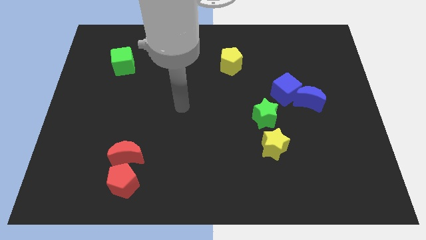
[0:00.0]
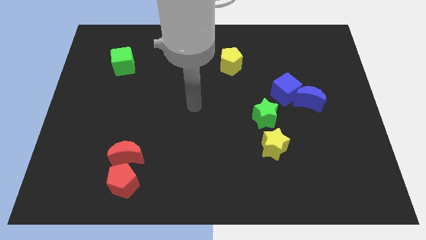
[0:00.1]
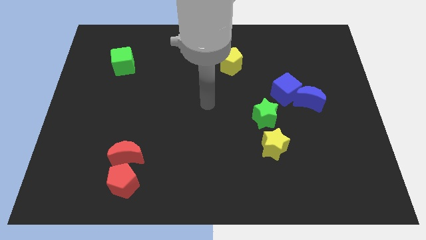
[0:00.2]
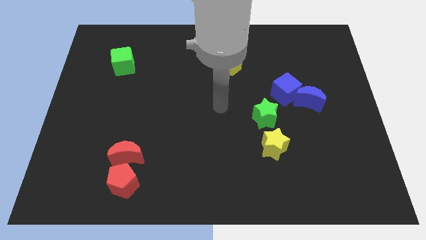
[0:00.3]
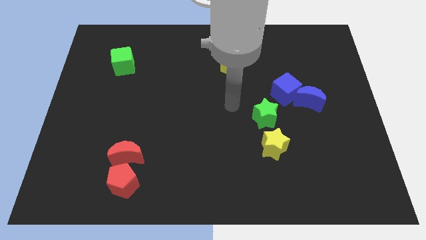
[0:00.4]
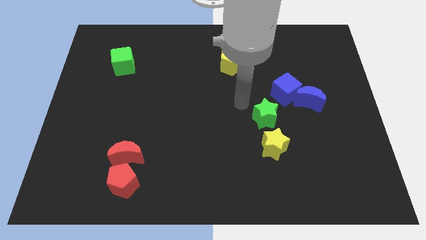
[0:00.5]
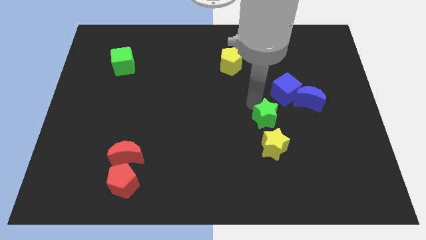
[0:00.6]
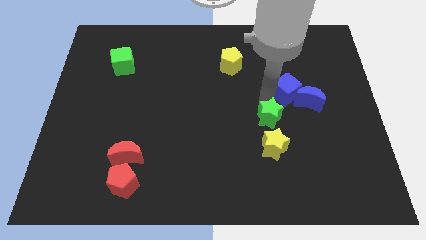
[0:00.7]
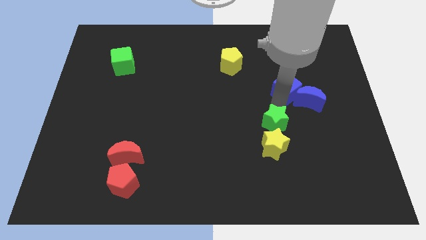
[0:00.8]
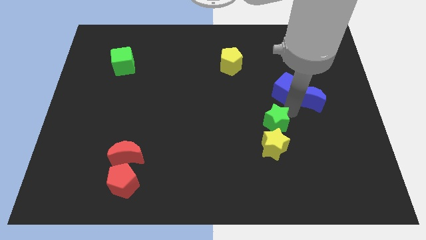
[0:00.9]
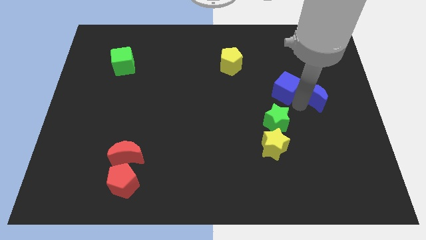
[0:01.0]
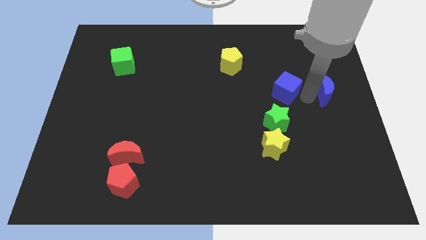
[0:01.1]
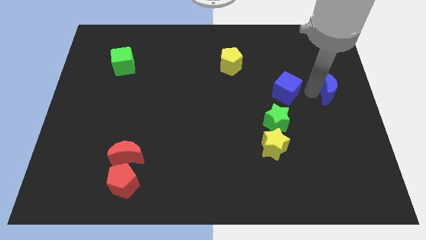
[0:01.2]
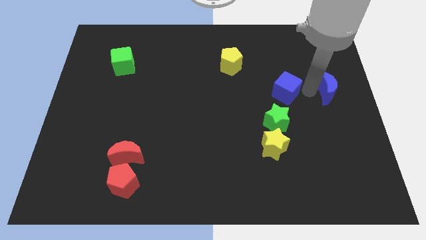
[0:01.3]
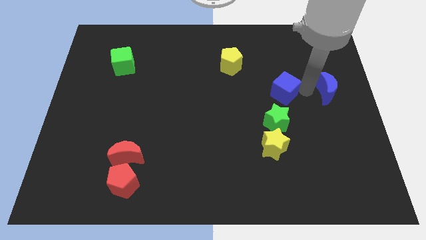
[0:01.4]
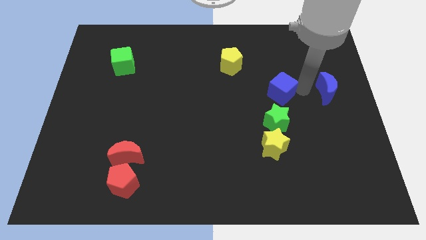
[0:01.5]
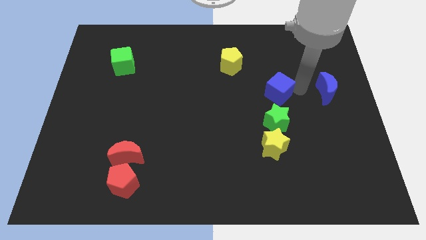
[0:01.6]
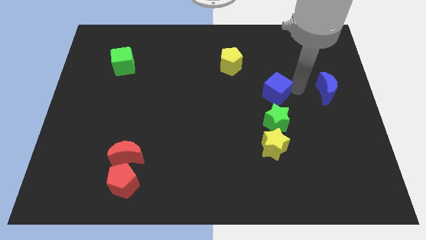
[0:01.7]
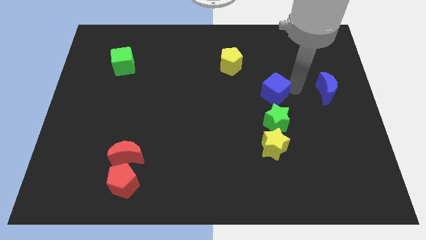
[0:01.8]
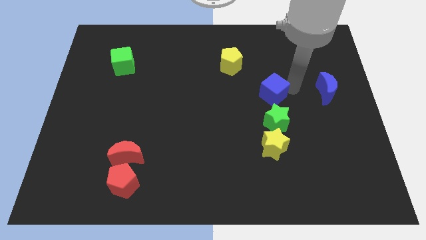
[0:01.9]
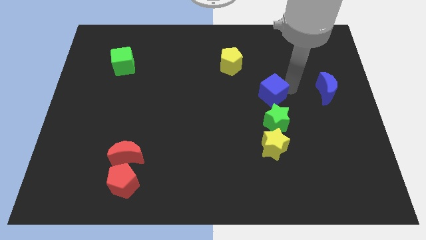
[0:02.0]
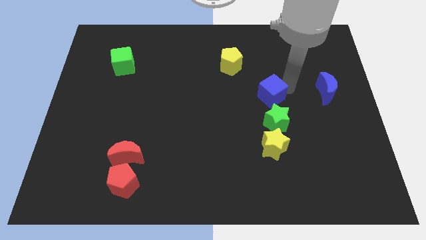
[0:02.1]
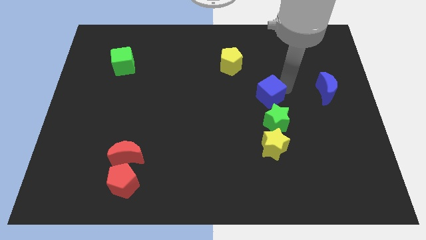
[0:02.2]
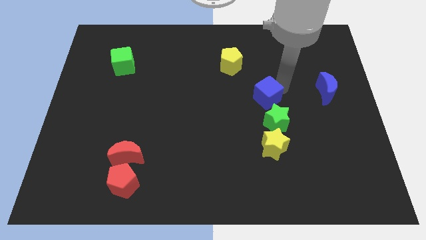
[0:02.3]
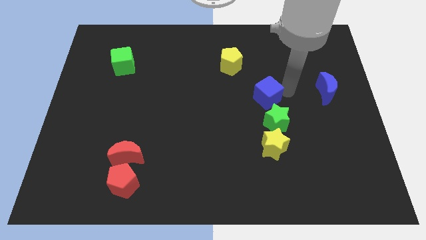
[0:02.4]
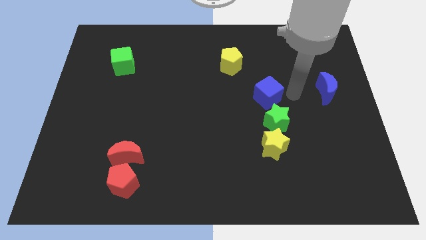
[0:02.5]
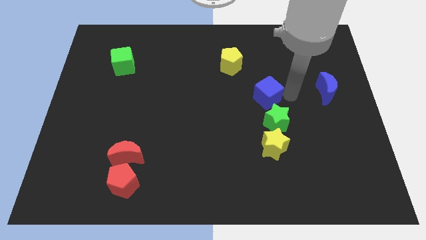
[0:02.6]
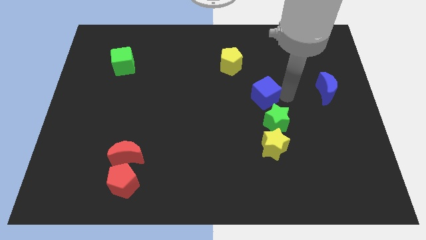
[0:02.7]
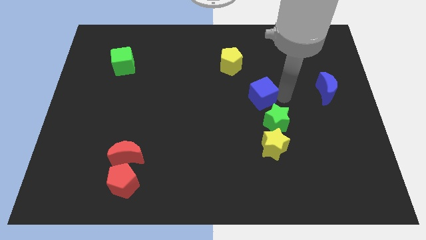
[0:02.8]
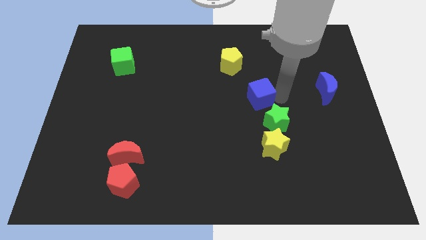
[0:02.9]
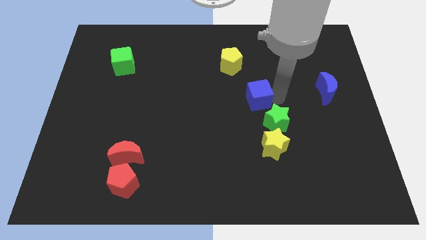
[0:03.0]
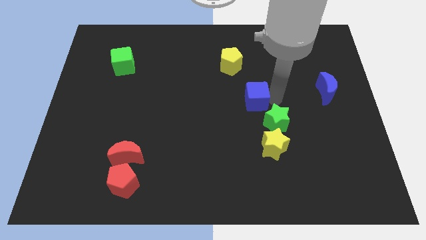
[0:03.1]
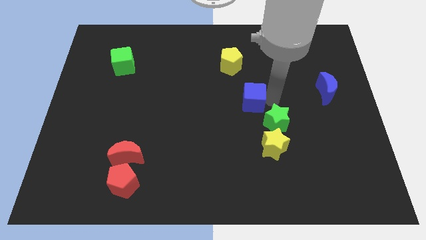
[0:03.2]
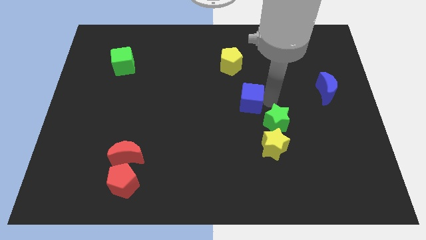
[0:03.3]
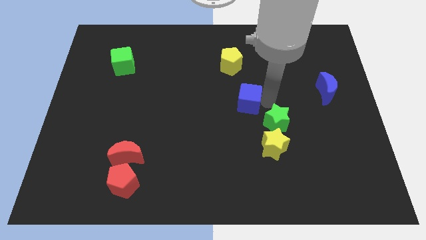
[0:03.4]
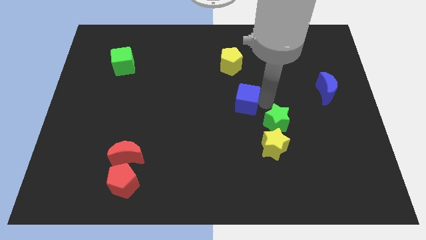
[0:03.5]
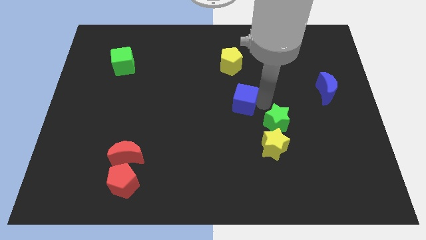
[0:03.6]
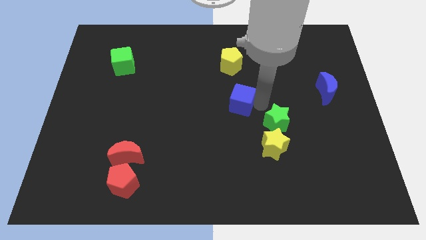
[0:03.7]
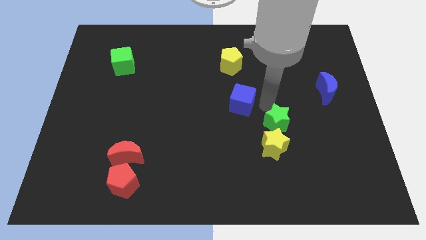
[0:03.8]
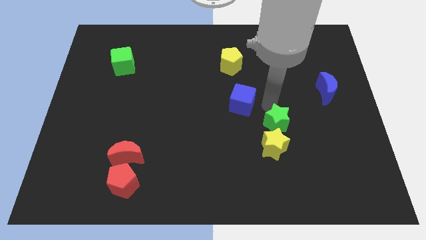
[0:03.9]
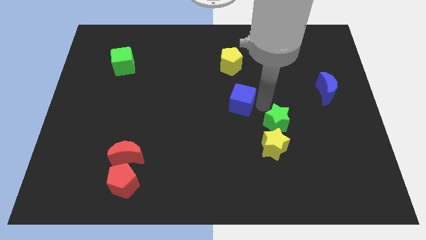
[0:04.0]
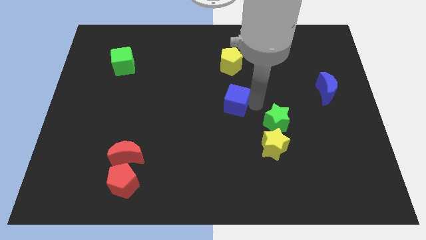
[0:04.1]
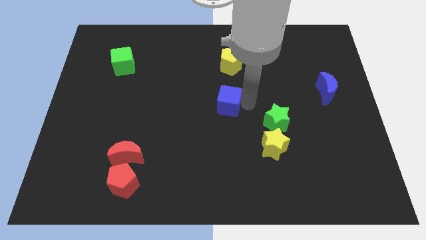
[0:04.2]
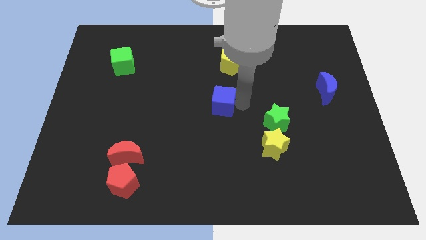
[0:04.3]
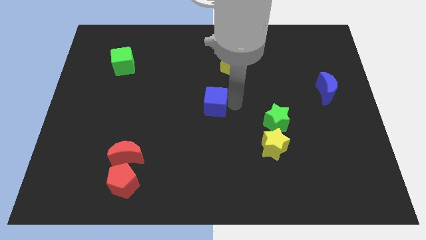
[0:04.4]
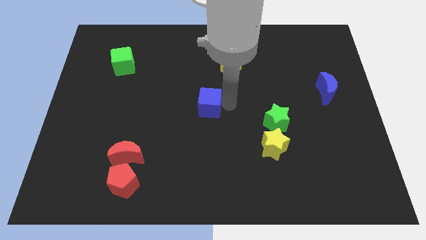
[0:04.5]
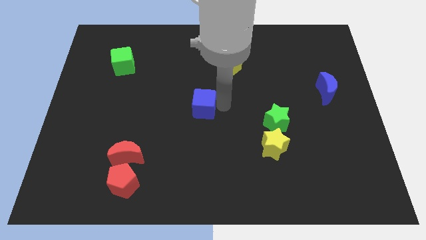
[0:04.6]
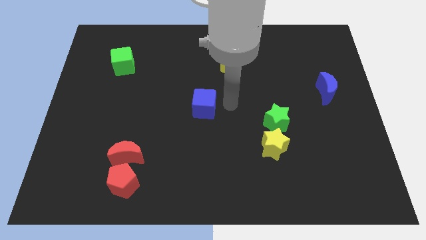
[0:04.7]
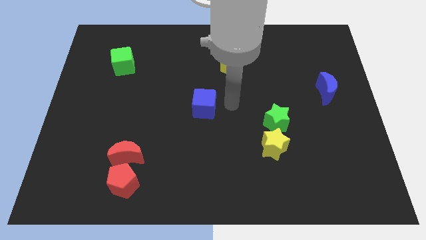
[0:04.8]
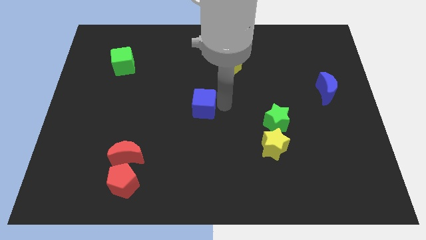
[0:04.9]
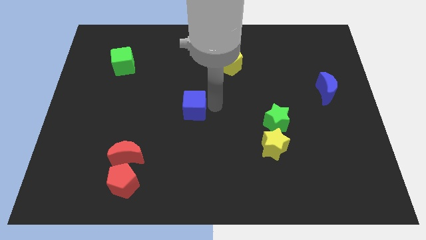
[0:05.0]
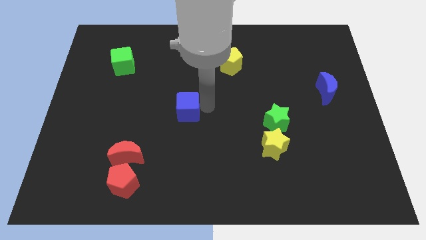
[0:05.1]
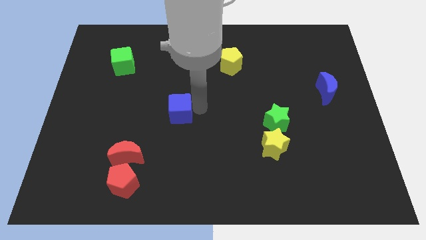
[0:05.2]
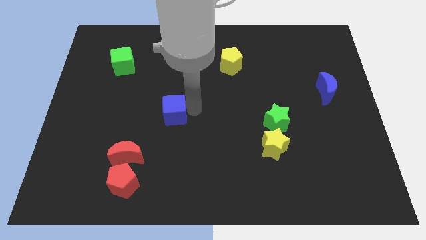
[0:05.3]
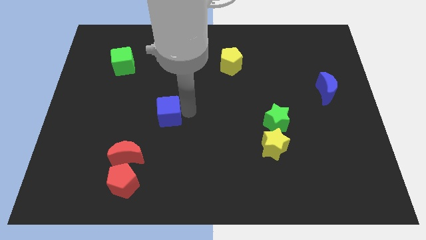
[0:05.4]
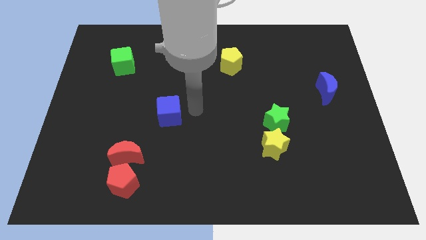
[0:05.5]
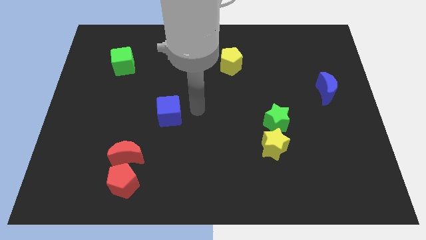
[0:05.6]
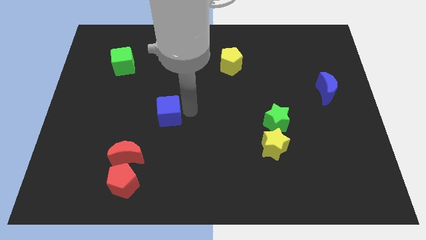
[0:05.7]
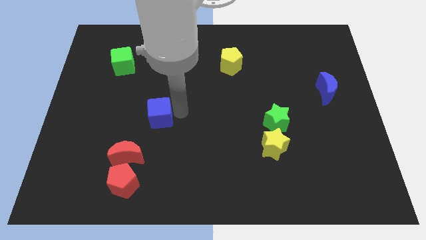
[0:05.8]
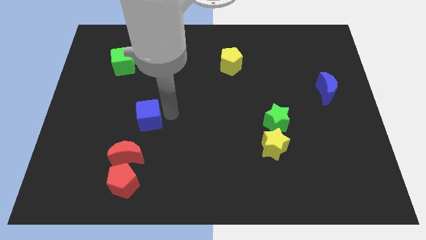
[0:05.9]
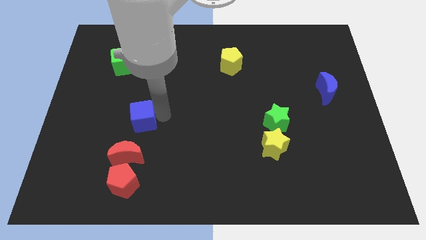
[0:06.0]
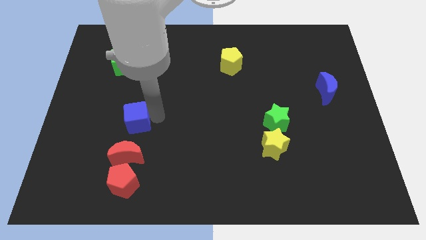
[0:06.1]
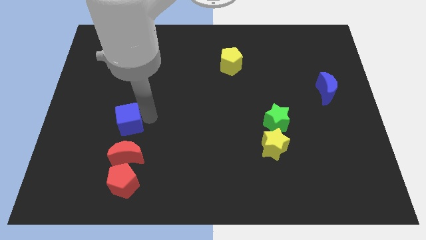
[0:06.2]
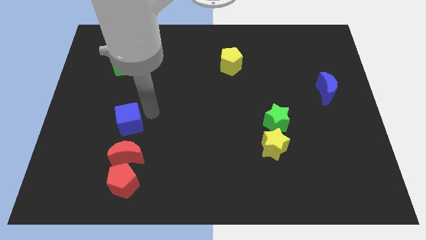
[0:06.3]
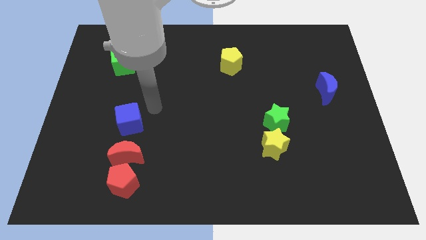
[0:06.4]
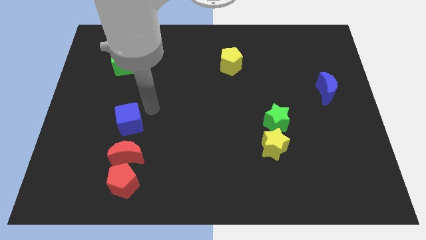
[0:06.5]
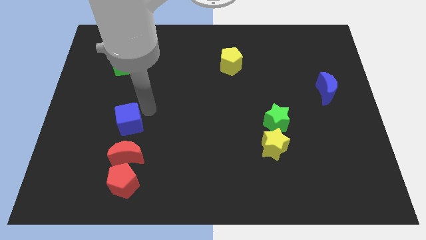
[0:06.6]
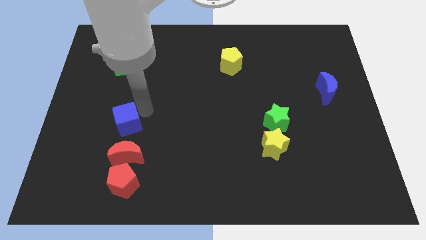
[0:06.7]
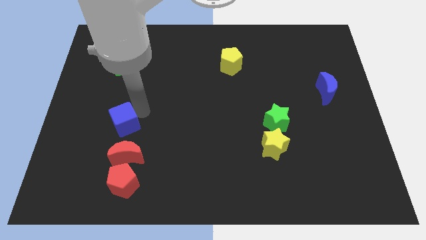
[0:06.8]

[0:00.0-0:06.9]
slide the blue cube to the top left side of the red moon

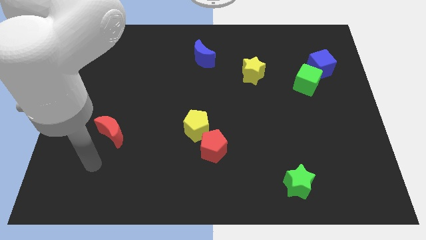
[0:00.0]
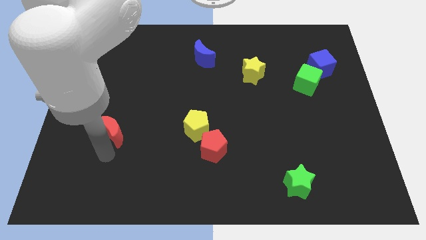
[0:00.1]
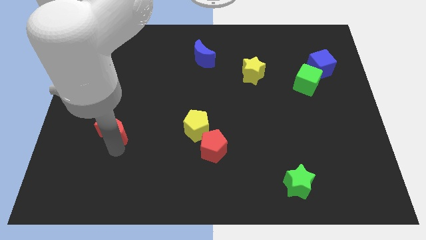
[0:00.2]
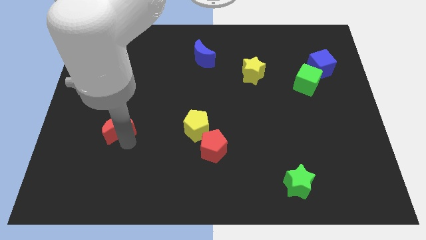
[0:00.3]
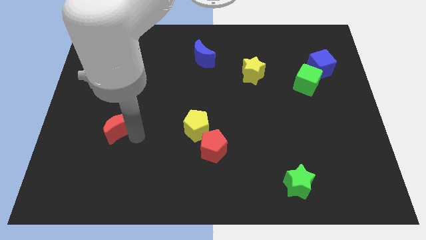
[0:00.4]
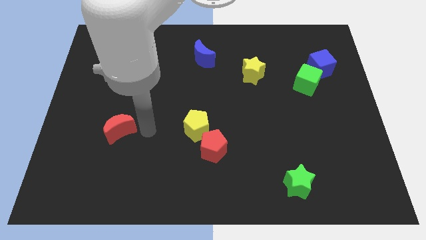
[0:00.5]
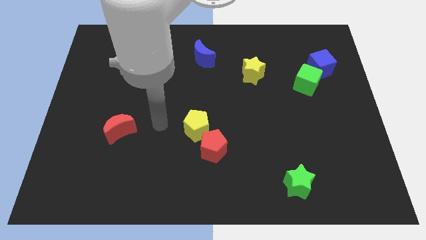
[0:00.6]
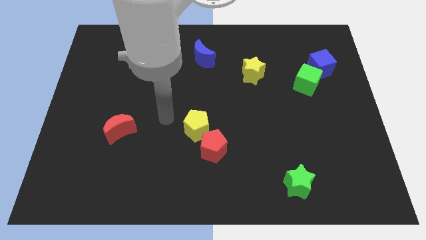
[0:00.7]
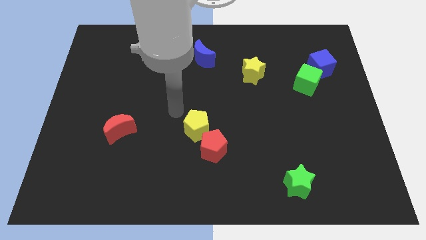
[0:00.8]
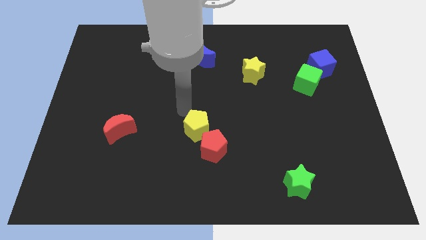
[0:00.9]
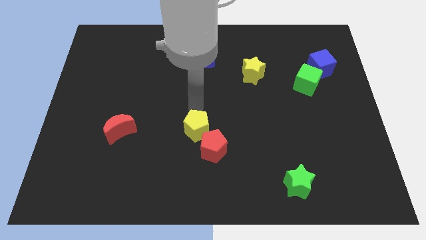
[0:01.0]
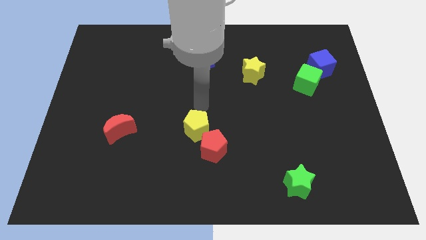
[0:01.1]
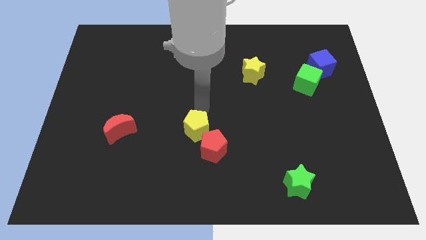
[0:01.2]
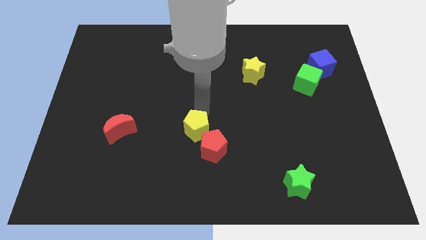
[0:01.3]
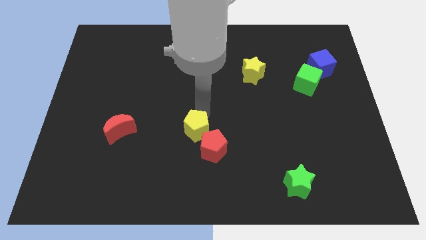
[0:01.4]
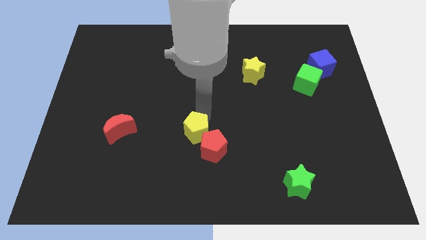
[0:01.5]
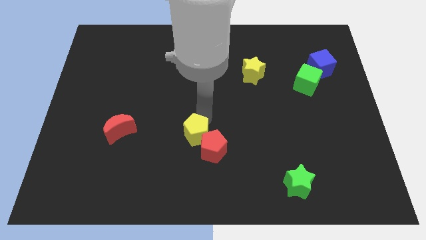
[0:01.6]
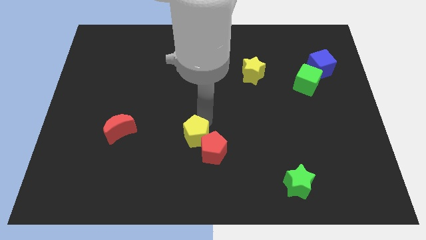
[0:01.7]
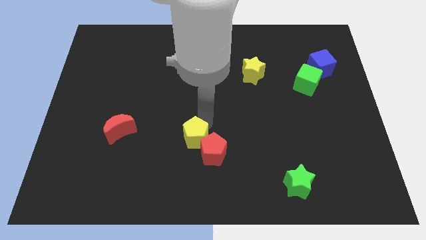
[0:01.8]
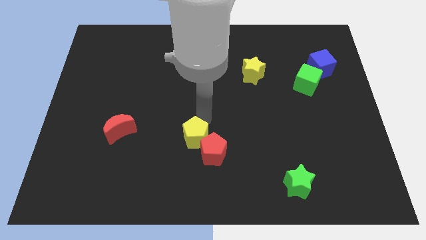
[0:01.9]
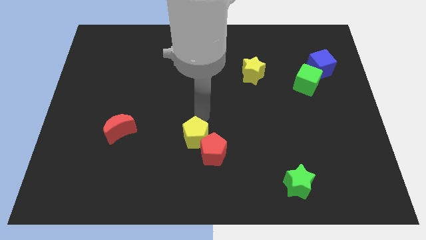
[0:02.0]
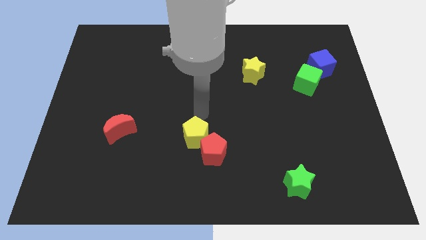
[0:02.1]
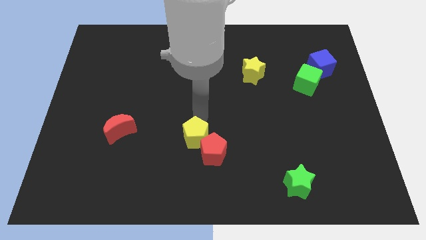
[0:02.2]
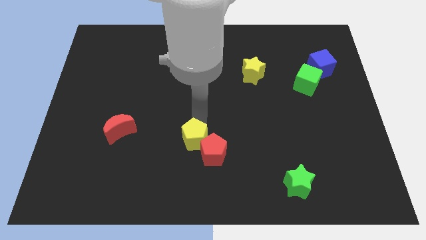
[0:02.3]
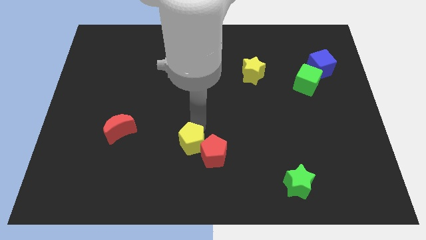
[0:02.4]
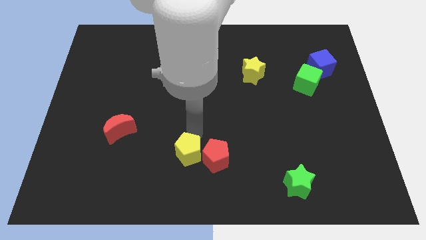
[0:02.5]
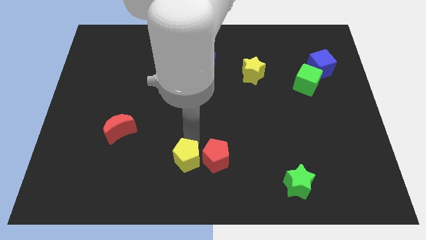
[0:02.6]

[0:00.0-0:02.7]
put the yellow pentagon to the bottom left of the red pentagon
